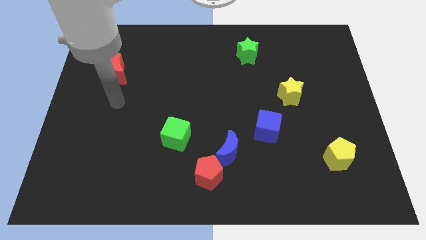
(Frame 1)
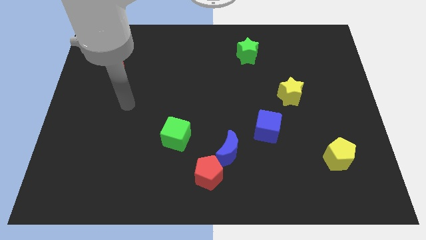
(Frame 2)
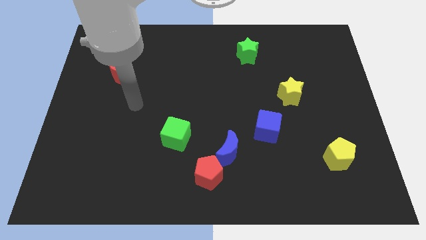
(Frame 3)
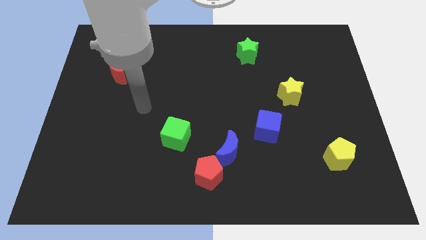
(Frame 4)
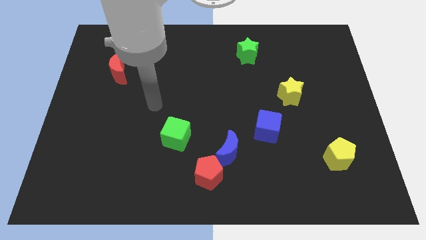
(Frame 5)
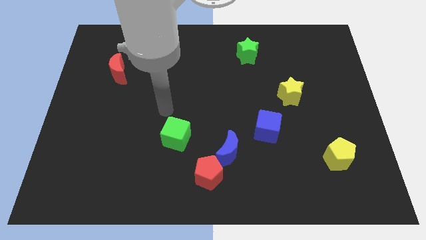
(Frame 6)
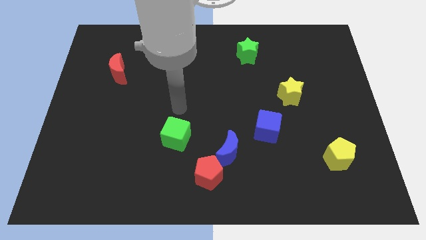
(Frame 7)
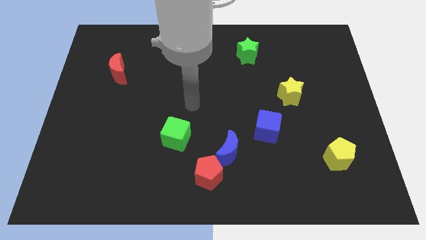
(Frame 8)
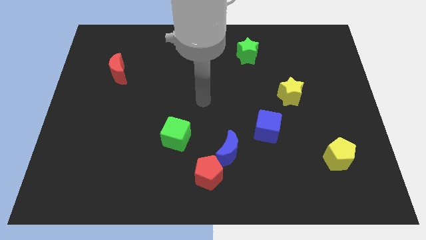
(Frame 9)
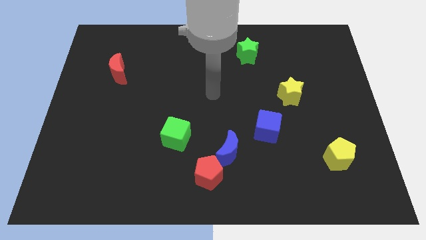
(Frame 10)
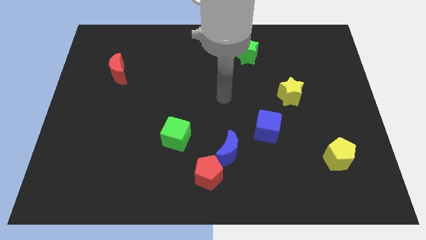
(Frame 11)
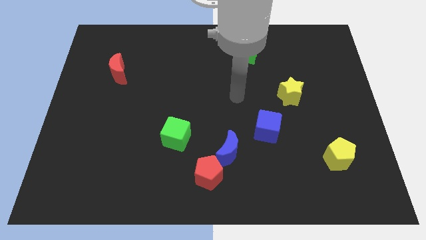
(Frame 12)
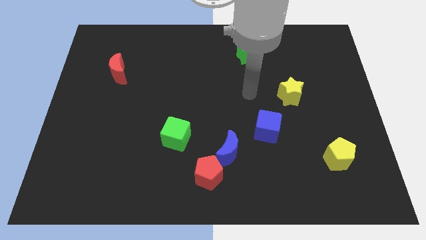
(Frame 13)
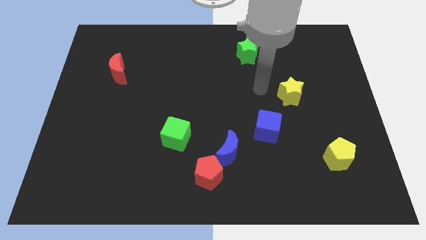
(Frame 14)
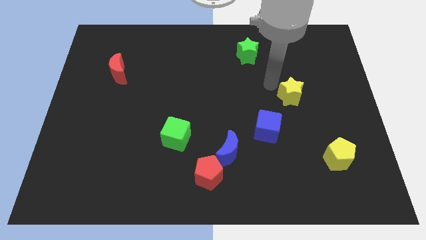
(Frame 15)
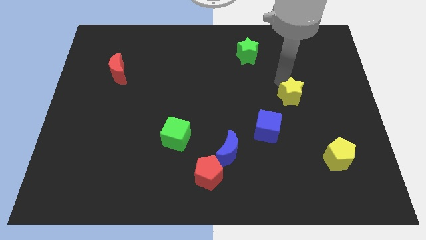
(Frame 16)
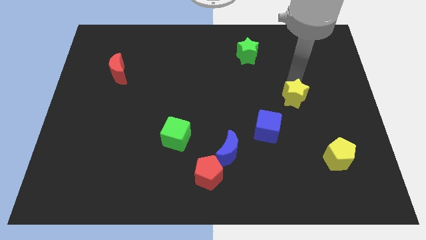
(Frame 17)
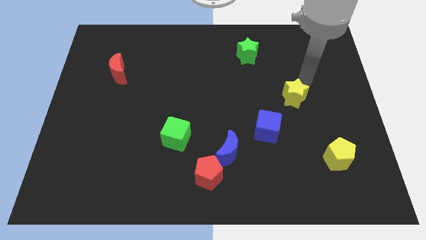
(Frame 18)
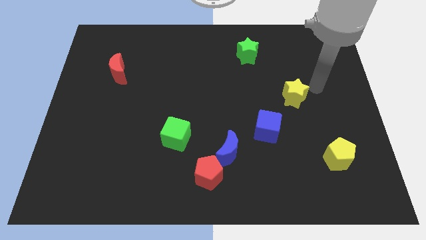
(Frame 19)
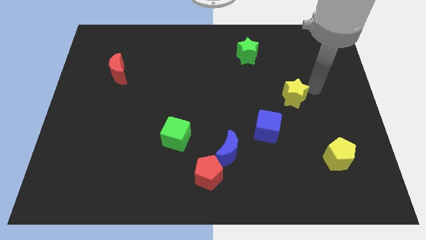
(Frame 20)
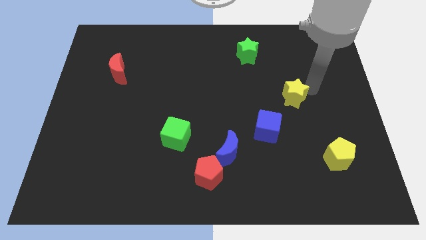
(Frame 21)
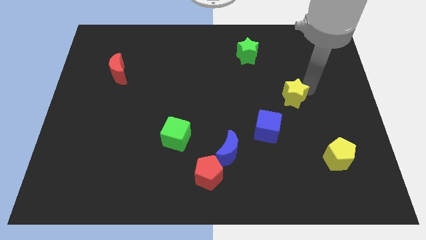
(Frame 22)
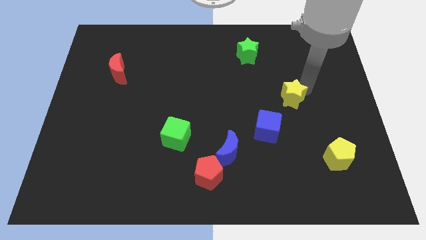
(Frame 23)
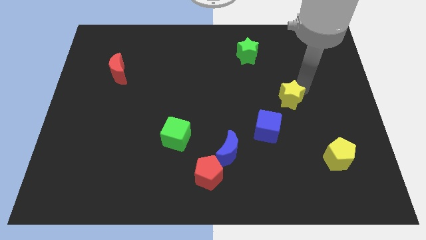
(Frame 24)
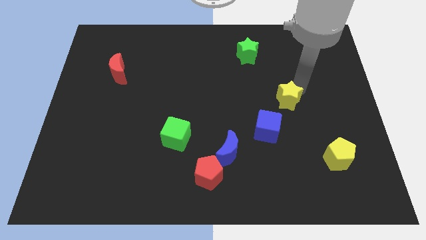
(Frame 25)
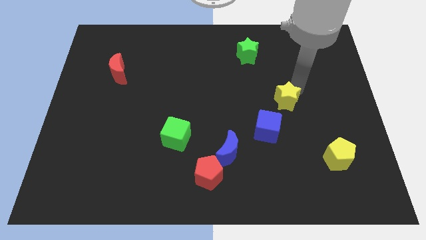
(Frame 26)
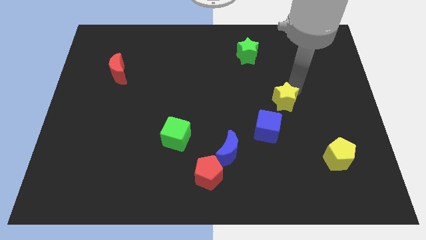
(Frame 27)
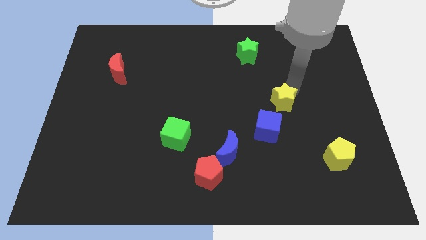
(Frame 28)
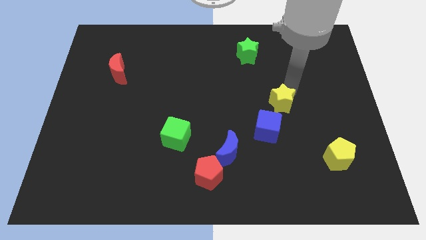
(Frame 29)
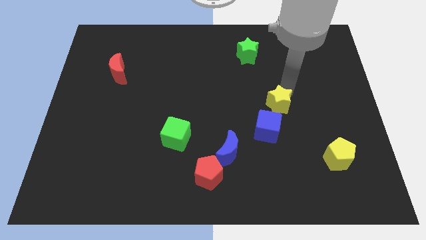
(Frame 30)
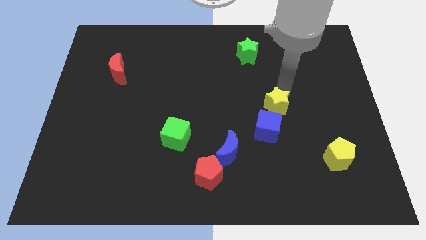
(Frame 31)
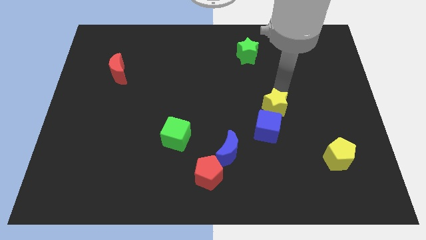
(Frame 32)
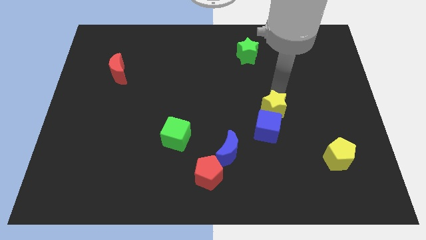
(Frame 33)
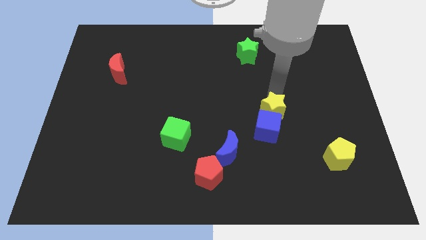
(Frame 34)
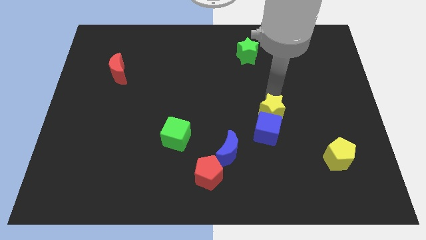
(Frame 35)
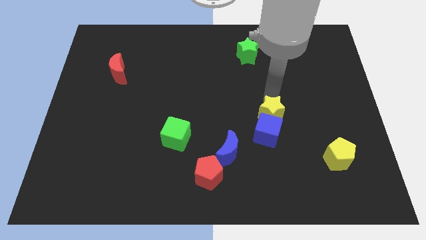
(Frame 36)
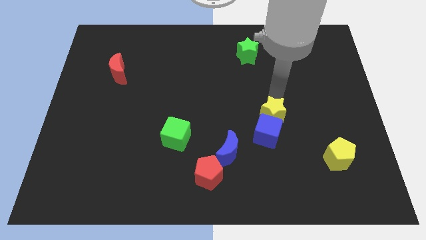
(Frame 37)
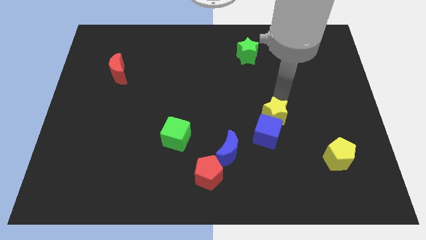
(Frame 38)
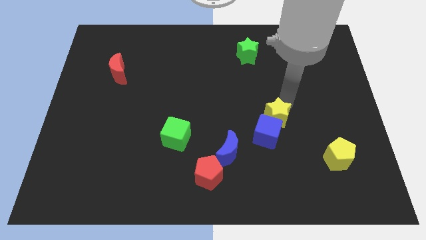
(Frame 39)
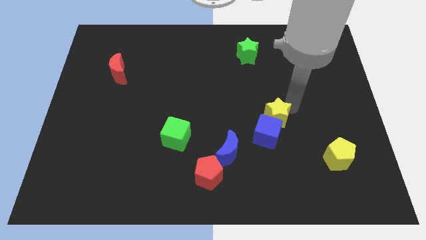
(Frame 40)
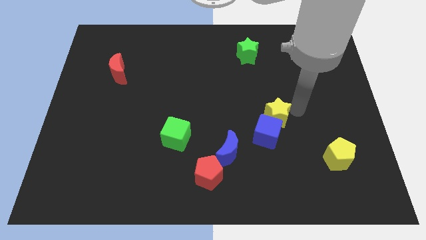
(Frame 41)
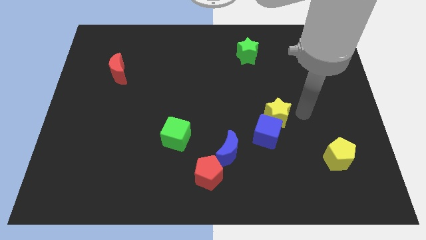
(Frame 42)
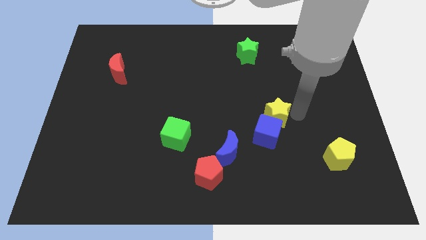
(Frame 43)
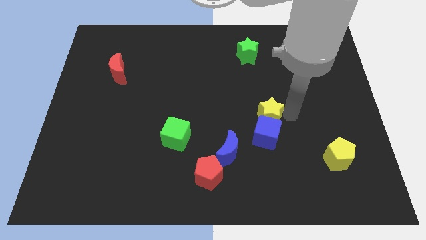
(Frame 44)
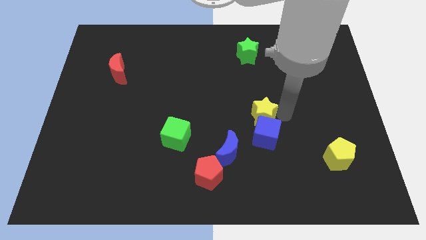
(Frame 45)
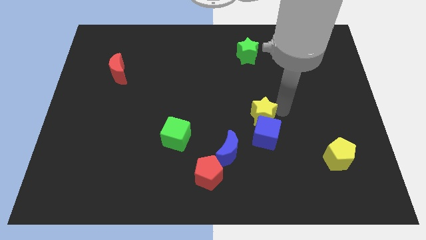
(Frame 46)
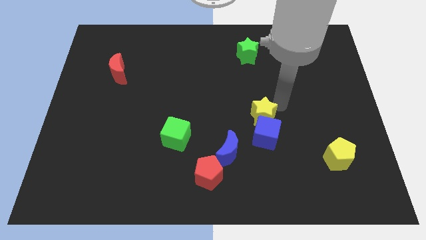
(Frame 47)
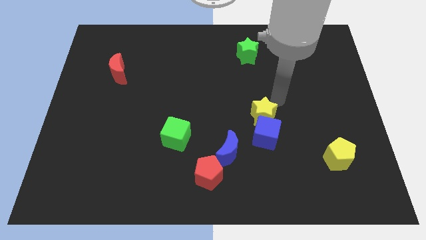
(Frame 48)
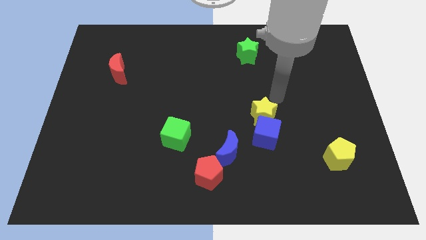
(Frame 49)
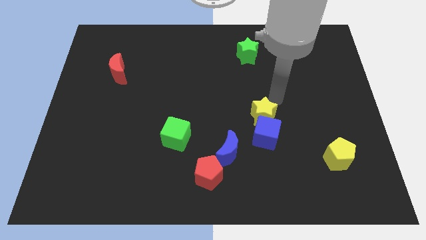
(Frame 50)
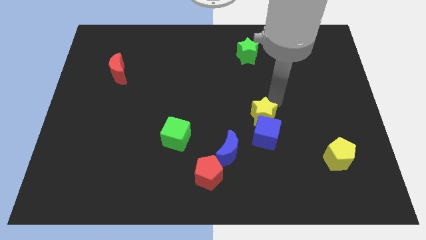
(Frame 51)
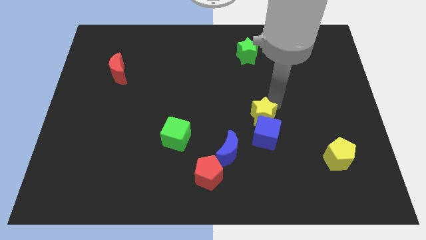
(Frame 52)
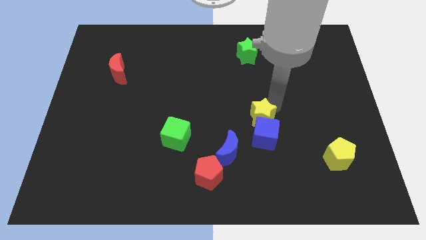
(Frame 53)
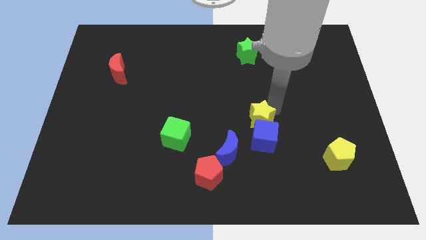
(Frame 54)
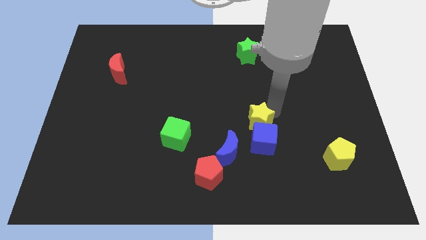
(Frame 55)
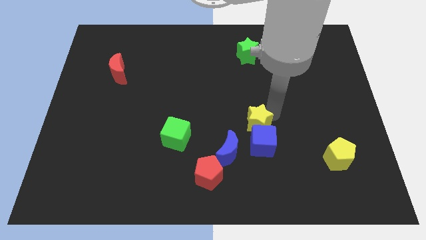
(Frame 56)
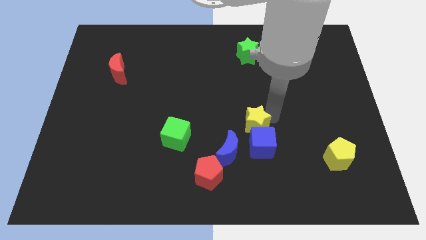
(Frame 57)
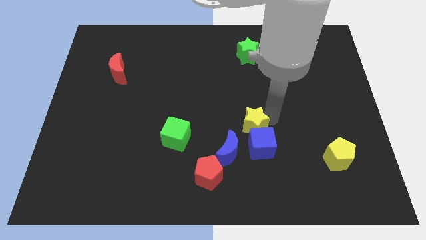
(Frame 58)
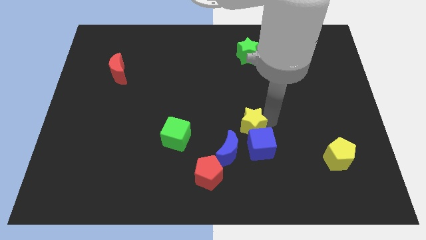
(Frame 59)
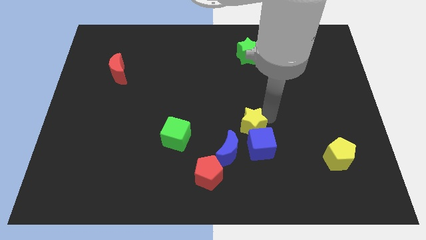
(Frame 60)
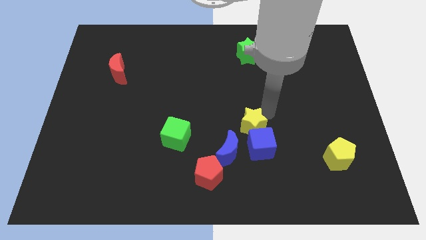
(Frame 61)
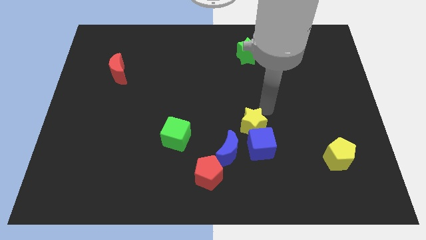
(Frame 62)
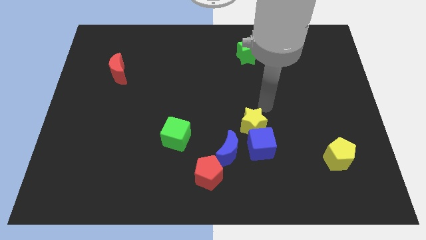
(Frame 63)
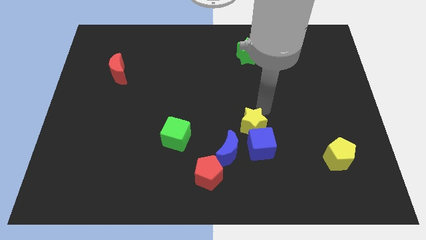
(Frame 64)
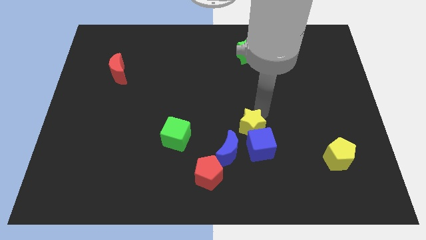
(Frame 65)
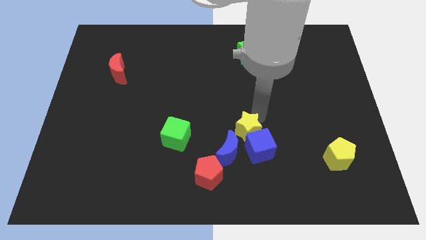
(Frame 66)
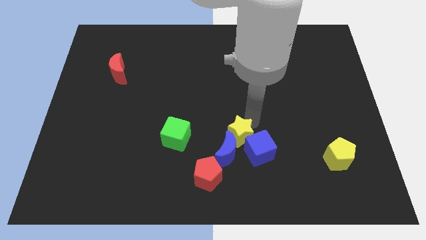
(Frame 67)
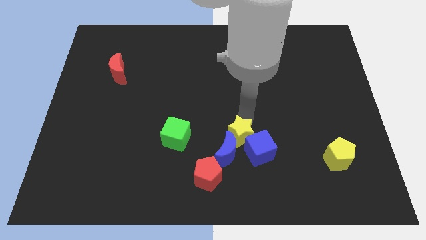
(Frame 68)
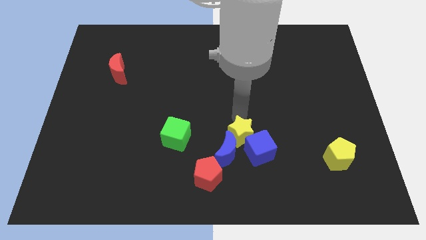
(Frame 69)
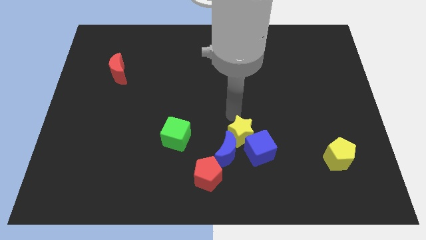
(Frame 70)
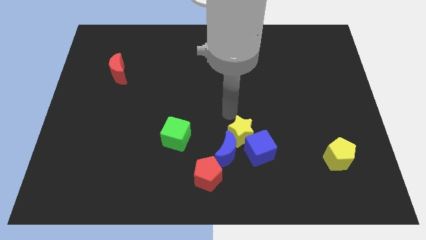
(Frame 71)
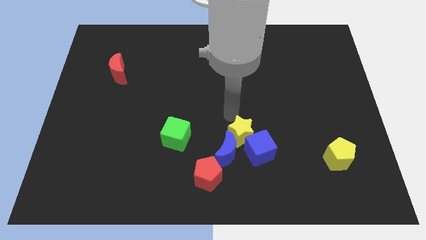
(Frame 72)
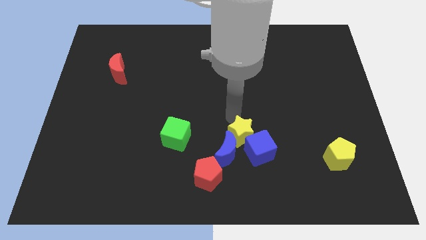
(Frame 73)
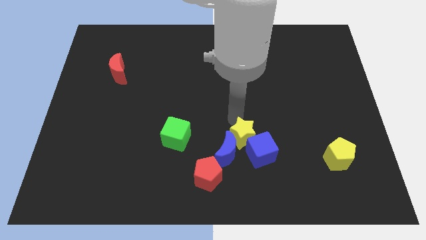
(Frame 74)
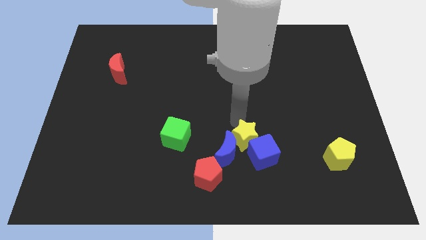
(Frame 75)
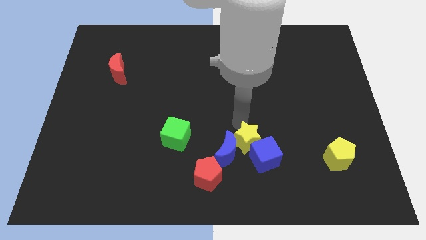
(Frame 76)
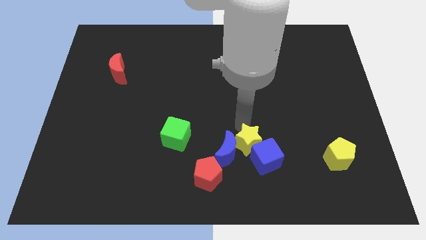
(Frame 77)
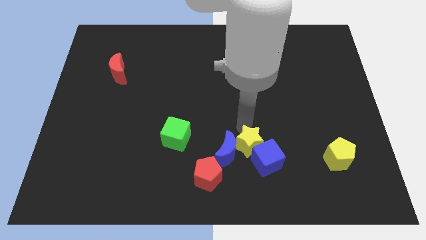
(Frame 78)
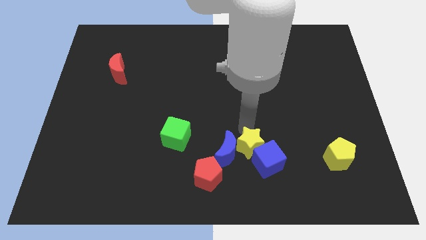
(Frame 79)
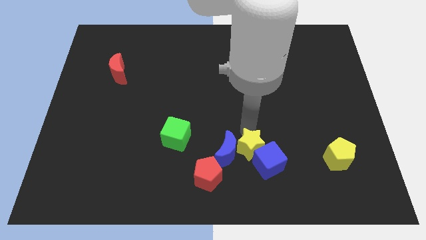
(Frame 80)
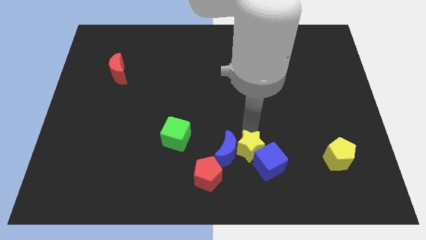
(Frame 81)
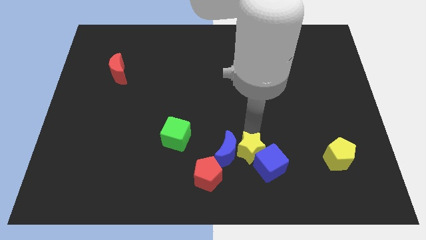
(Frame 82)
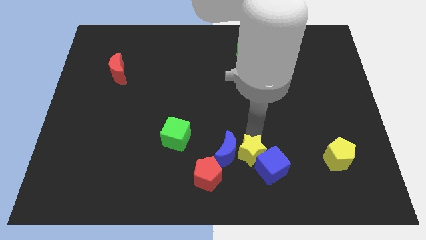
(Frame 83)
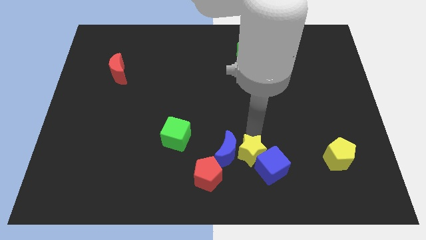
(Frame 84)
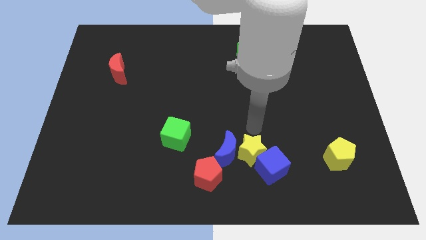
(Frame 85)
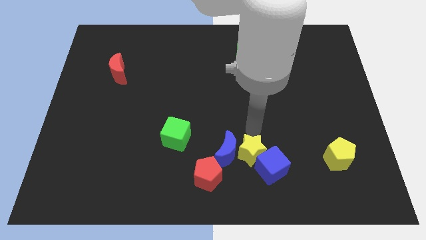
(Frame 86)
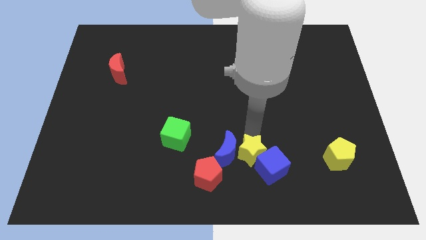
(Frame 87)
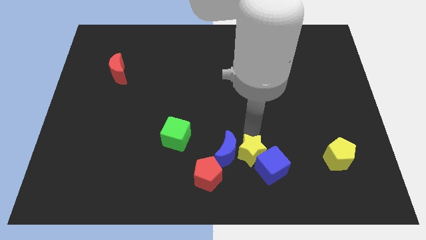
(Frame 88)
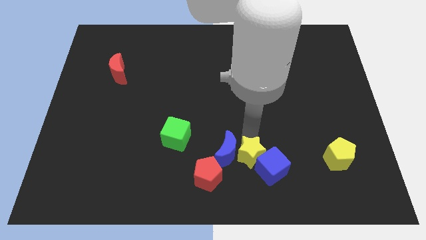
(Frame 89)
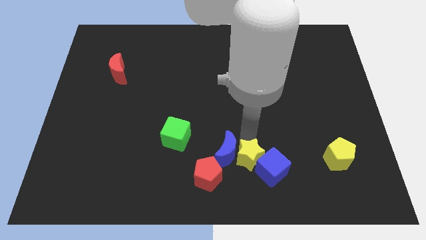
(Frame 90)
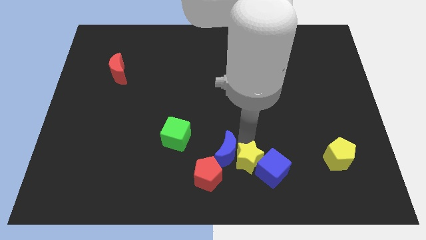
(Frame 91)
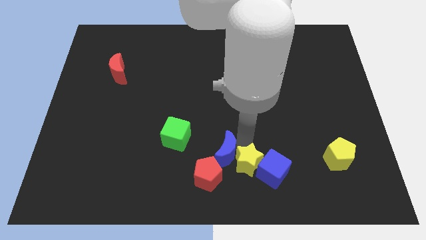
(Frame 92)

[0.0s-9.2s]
push the yellow star to the bottom side
